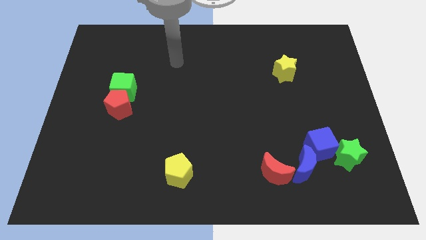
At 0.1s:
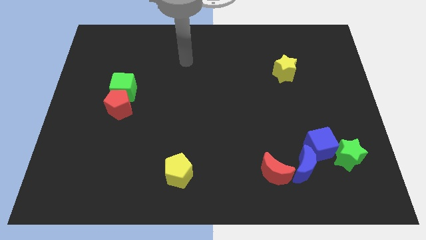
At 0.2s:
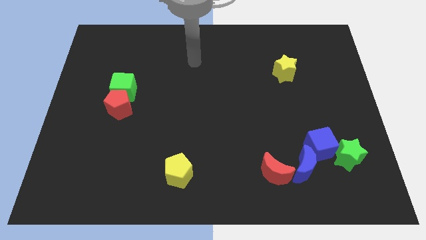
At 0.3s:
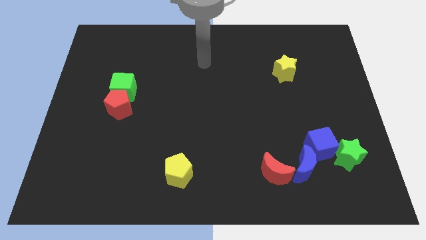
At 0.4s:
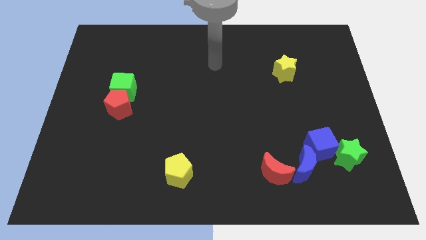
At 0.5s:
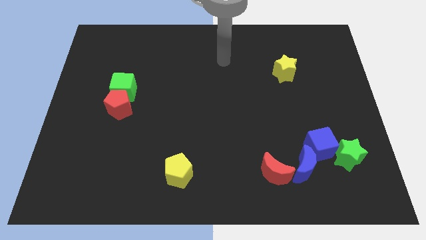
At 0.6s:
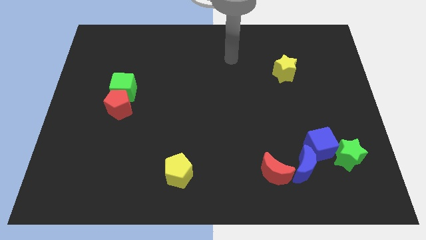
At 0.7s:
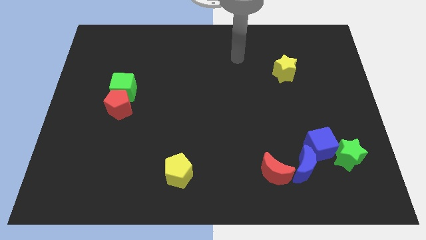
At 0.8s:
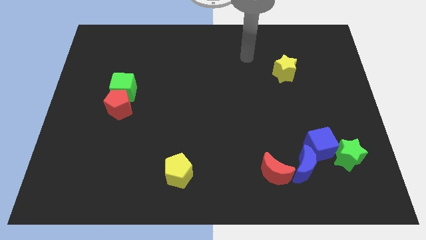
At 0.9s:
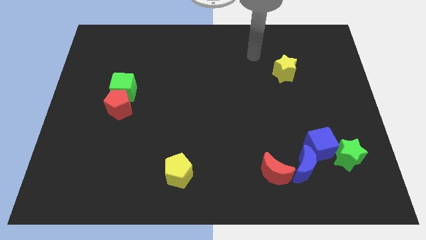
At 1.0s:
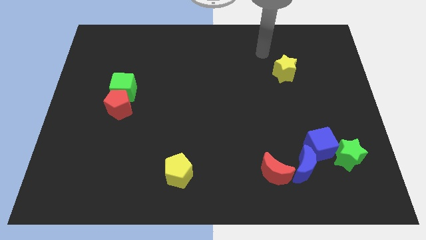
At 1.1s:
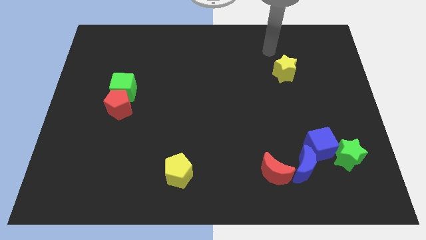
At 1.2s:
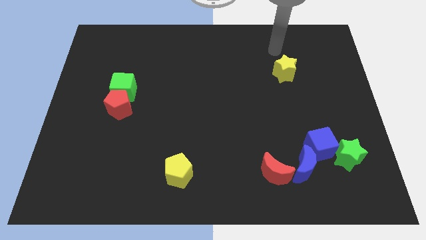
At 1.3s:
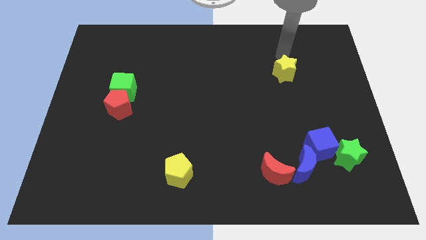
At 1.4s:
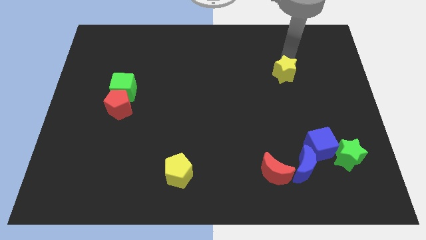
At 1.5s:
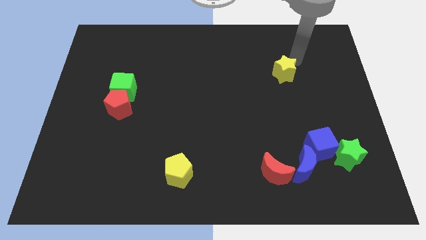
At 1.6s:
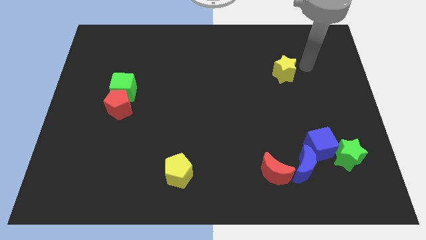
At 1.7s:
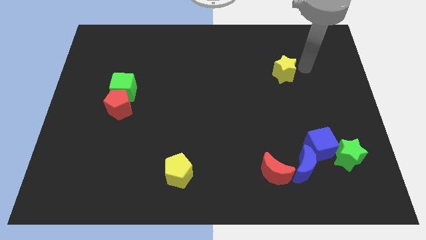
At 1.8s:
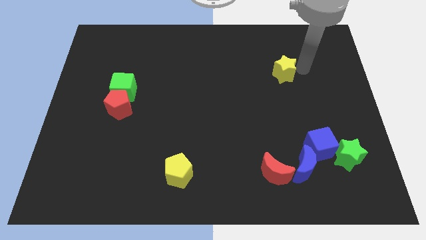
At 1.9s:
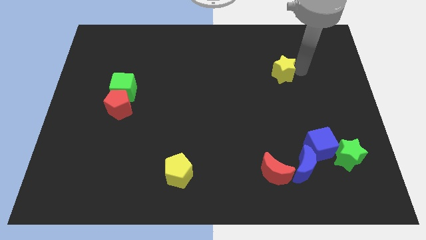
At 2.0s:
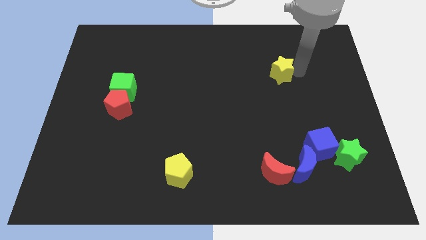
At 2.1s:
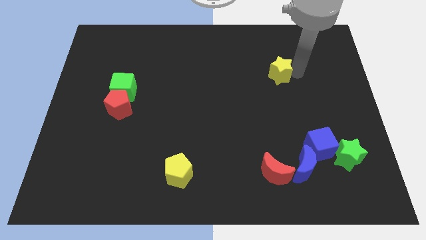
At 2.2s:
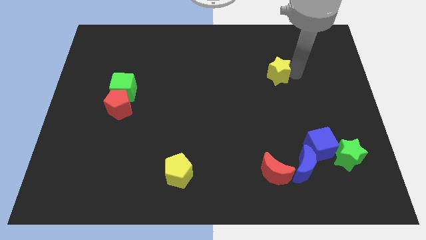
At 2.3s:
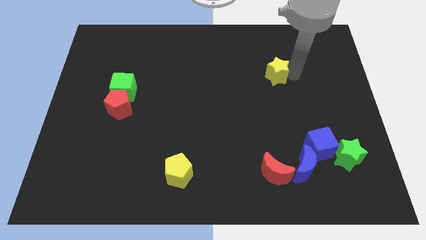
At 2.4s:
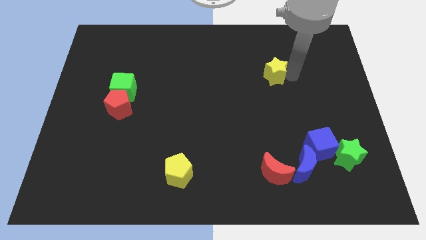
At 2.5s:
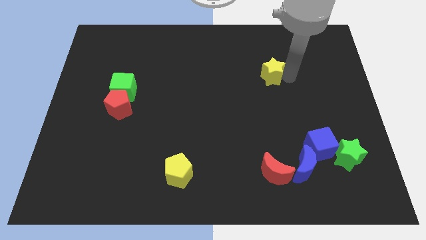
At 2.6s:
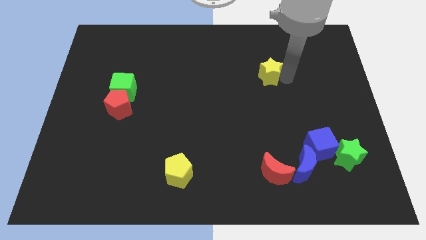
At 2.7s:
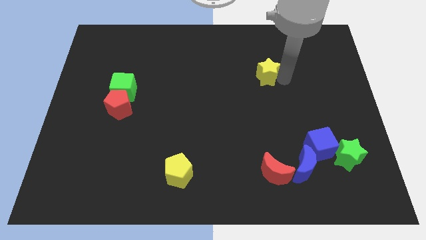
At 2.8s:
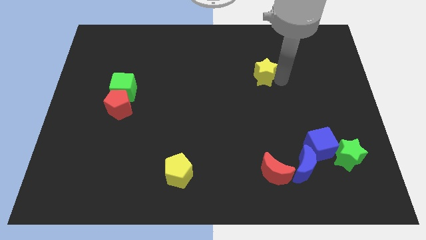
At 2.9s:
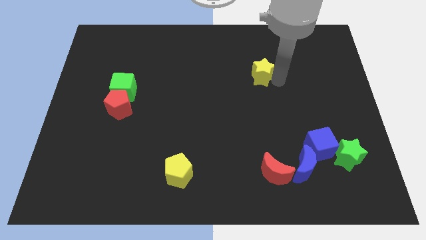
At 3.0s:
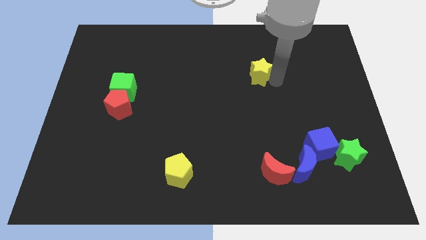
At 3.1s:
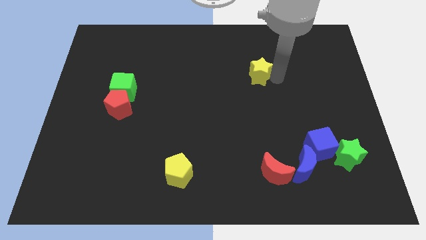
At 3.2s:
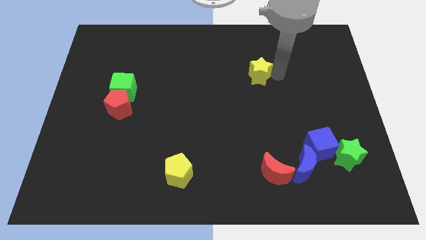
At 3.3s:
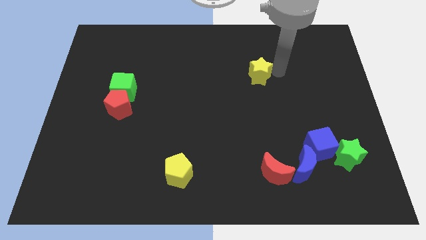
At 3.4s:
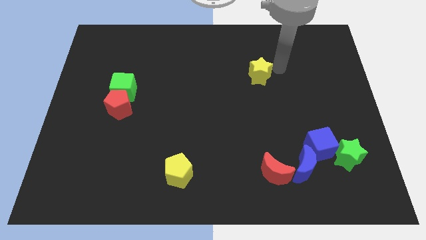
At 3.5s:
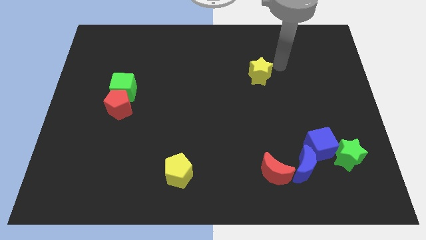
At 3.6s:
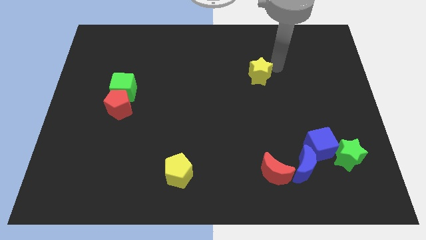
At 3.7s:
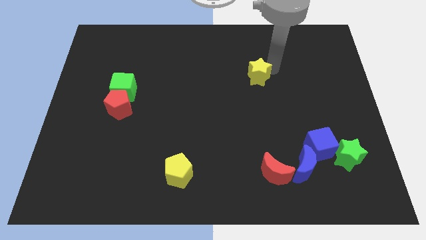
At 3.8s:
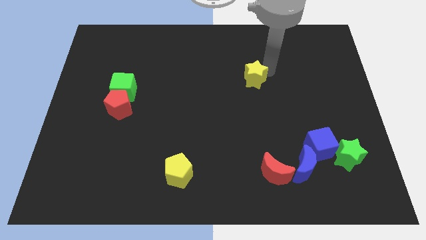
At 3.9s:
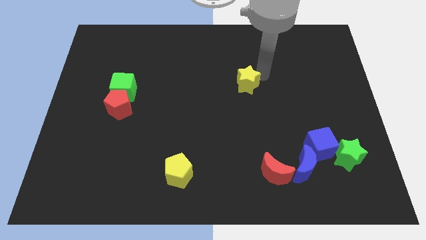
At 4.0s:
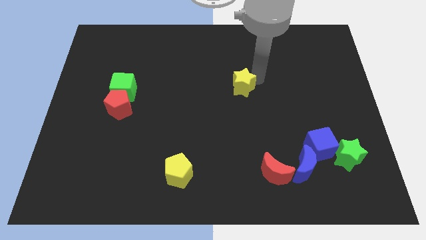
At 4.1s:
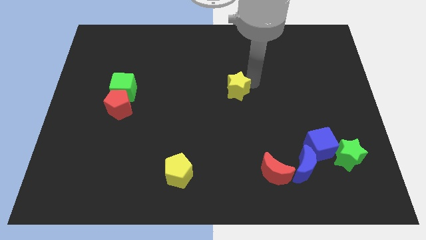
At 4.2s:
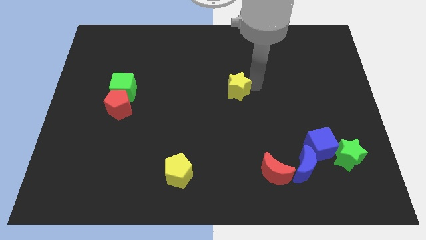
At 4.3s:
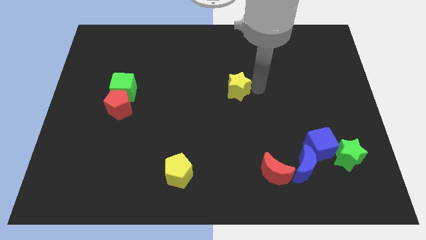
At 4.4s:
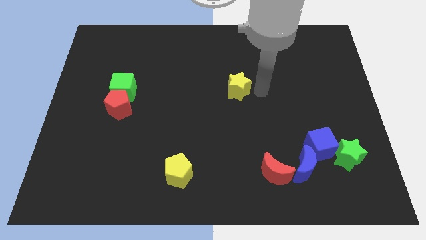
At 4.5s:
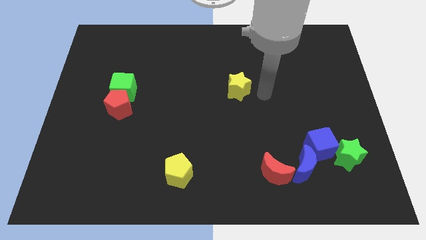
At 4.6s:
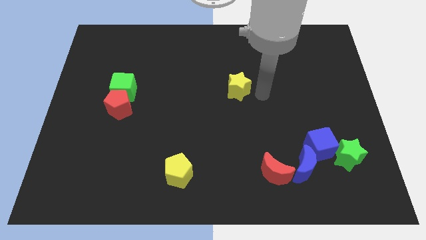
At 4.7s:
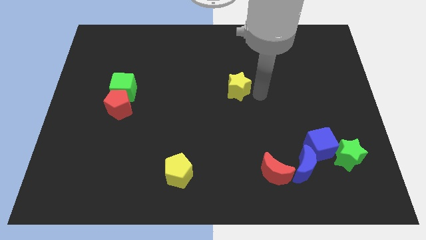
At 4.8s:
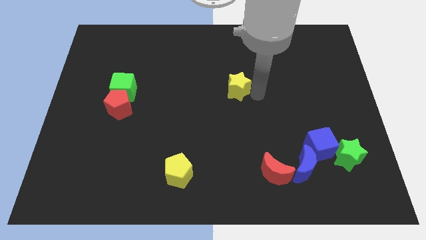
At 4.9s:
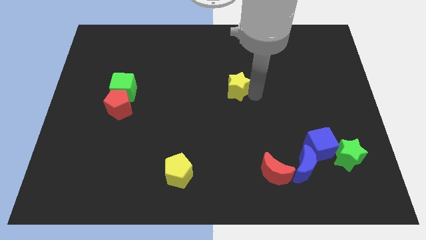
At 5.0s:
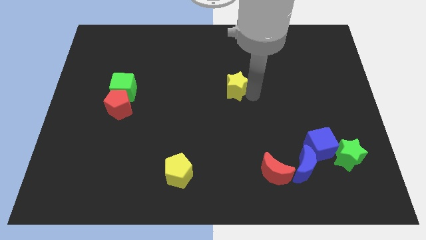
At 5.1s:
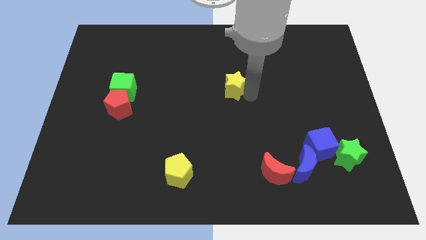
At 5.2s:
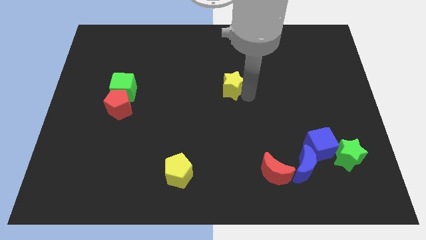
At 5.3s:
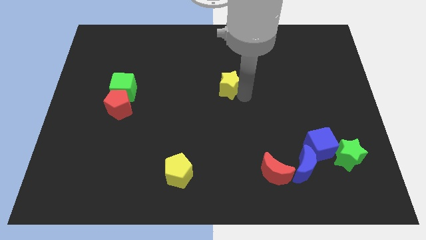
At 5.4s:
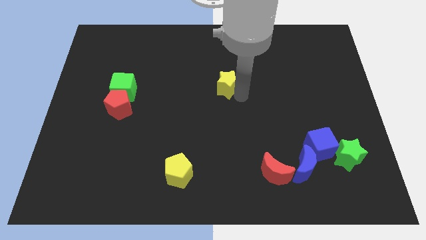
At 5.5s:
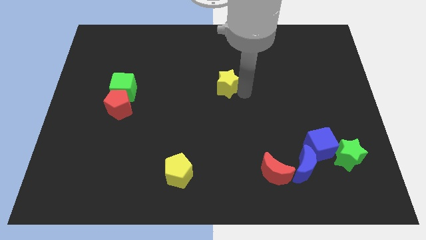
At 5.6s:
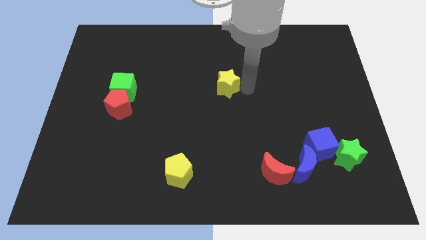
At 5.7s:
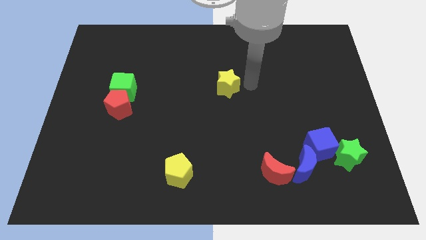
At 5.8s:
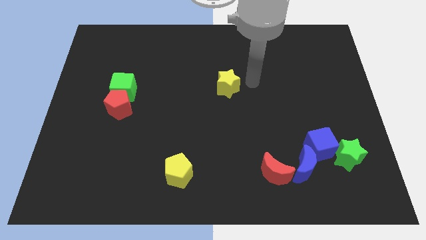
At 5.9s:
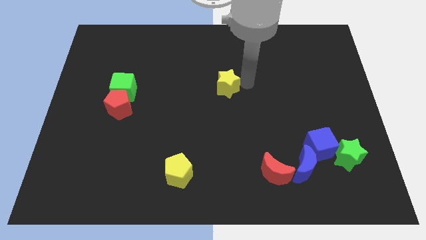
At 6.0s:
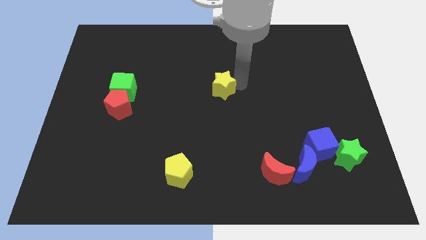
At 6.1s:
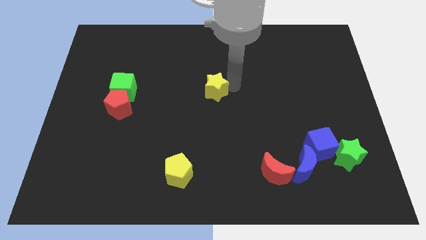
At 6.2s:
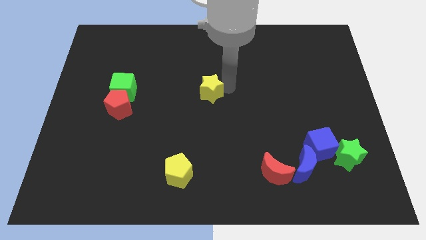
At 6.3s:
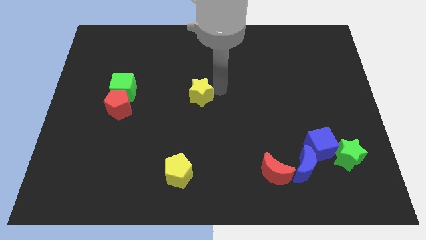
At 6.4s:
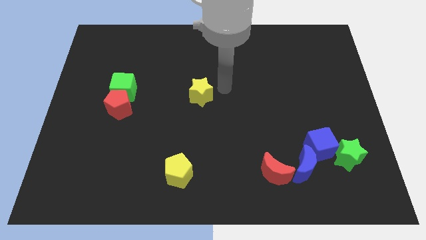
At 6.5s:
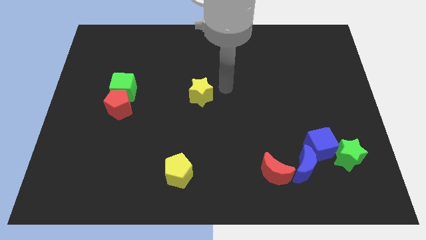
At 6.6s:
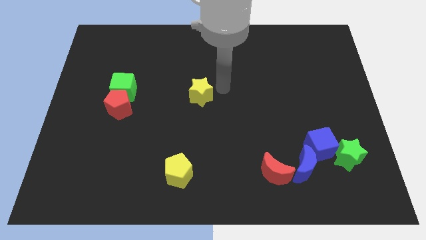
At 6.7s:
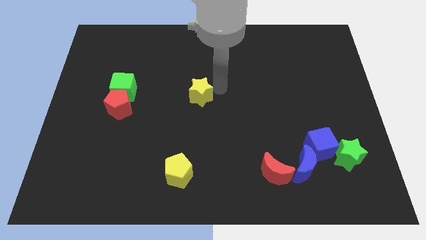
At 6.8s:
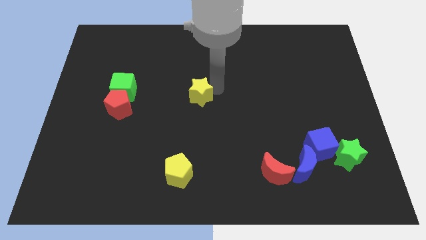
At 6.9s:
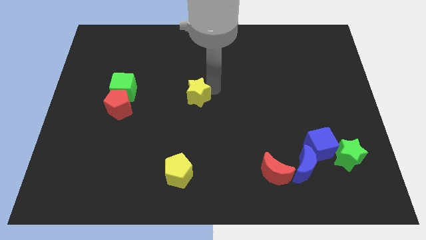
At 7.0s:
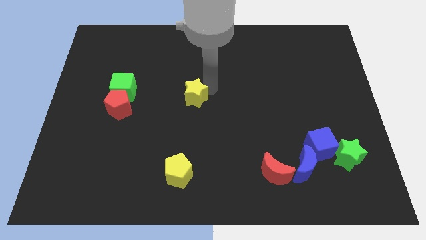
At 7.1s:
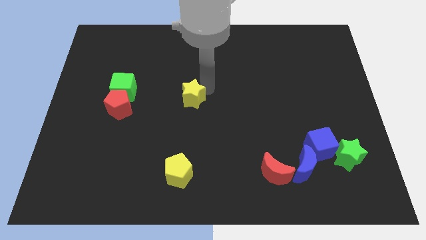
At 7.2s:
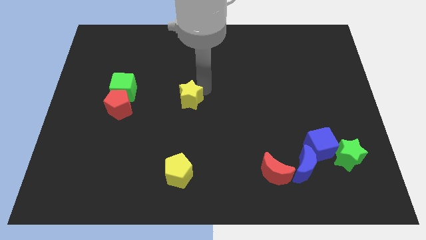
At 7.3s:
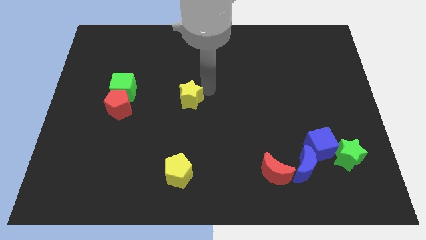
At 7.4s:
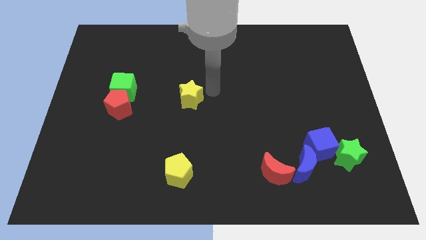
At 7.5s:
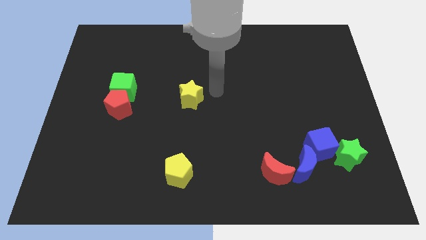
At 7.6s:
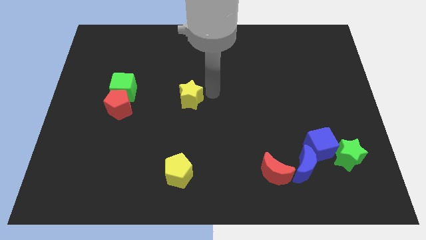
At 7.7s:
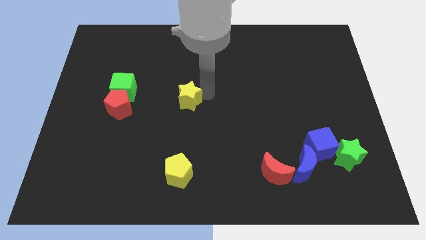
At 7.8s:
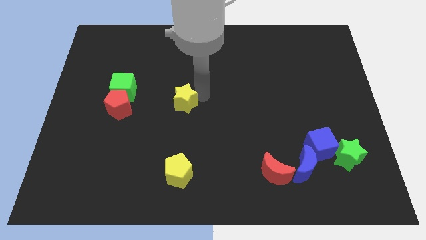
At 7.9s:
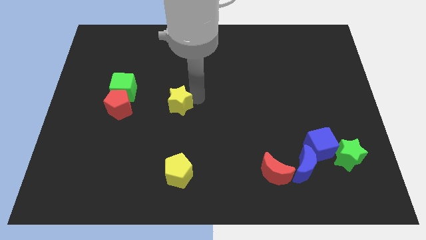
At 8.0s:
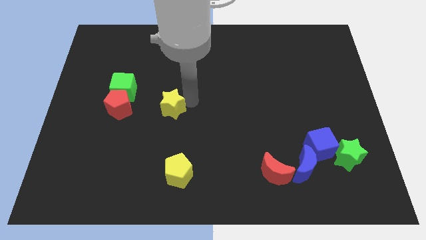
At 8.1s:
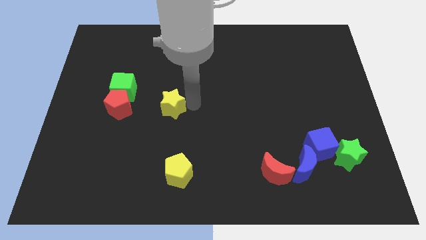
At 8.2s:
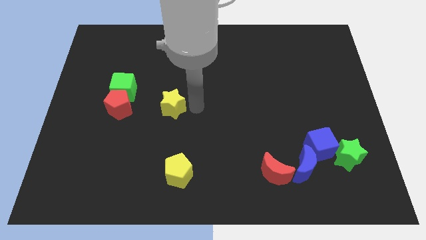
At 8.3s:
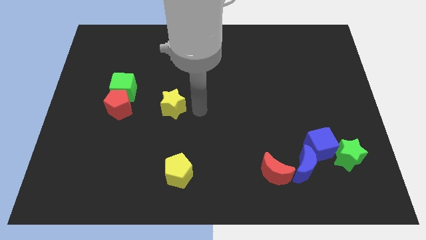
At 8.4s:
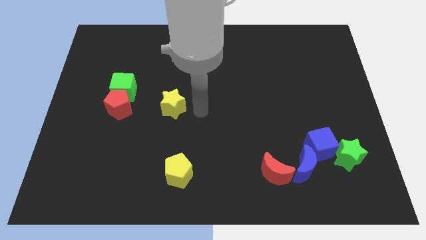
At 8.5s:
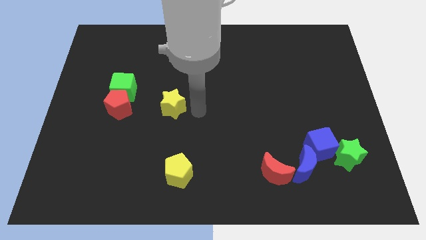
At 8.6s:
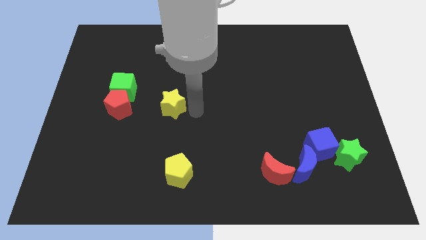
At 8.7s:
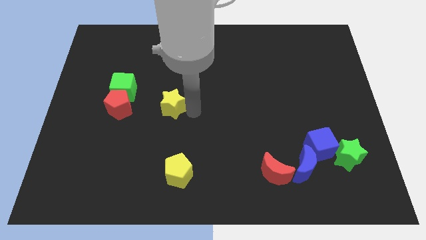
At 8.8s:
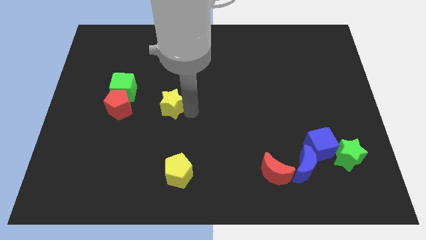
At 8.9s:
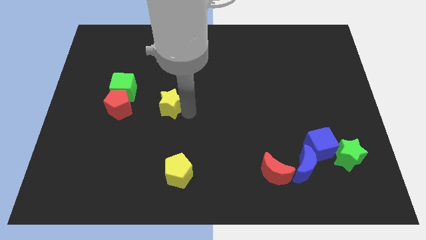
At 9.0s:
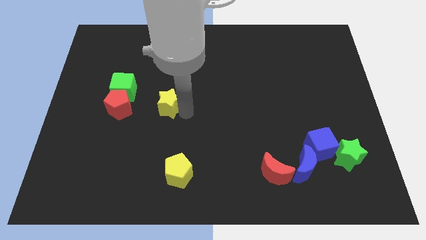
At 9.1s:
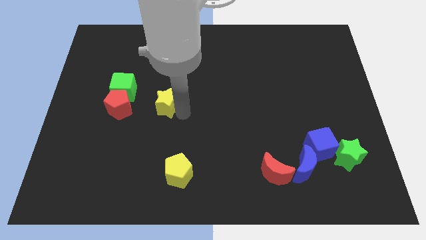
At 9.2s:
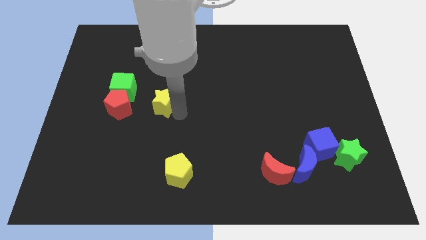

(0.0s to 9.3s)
push the yellow star diagonally down and to the right of the green cube
